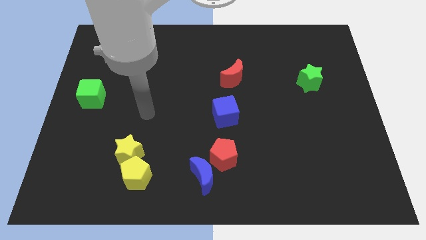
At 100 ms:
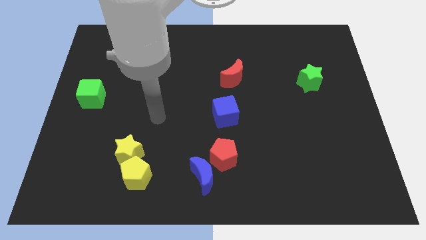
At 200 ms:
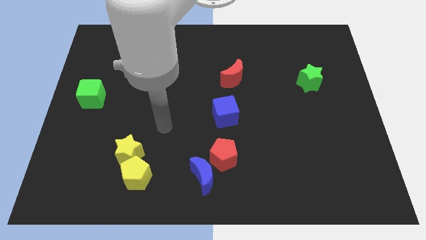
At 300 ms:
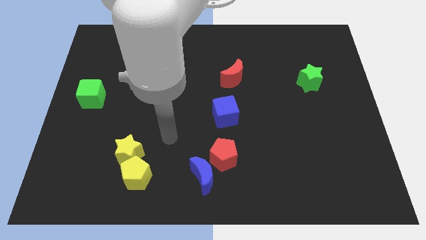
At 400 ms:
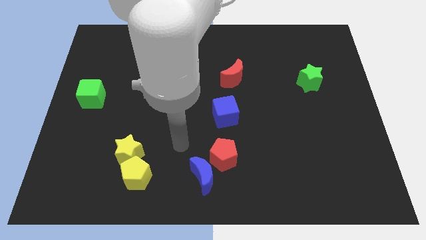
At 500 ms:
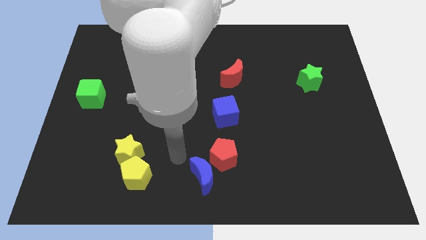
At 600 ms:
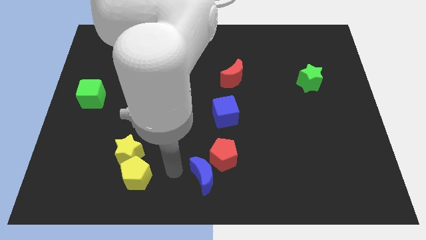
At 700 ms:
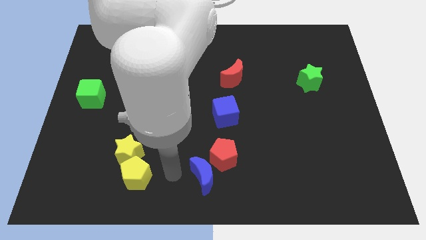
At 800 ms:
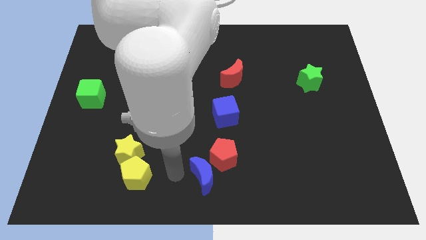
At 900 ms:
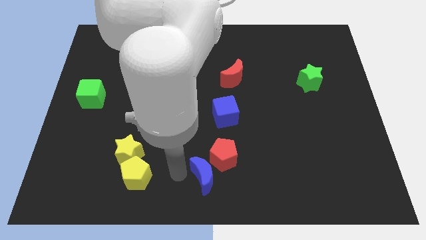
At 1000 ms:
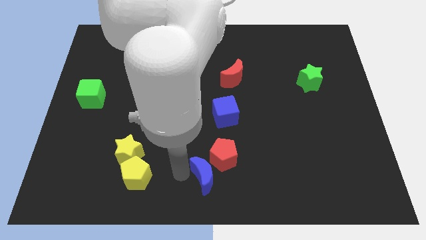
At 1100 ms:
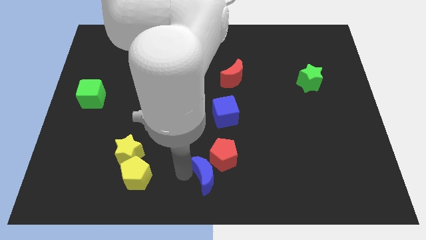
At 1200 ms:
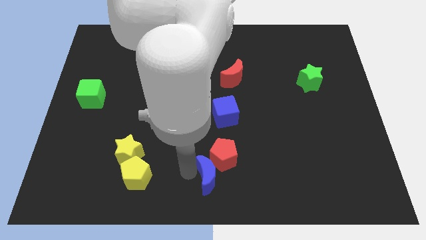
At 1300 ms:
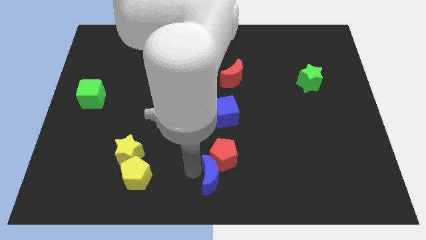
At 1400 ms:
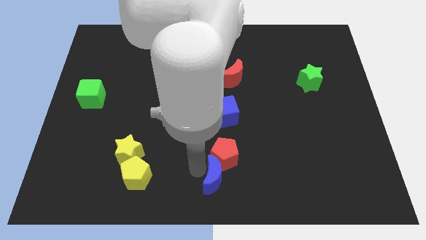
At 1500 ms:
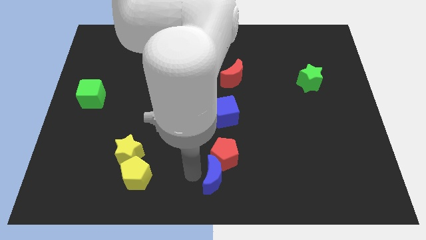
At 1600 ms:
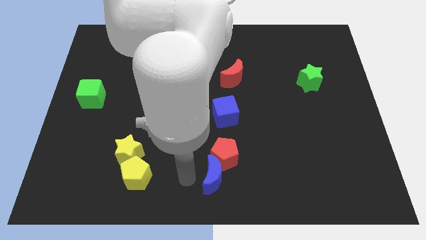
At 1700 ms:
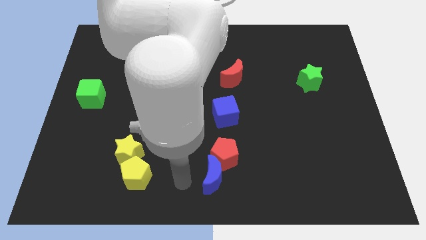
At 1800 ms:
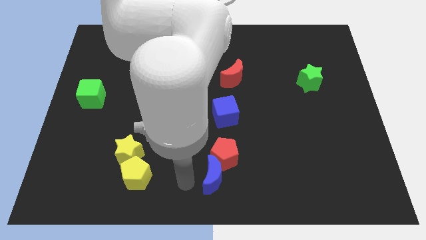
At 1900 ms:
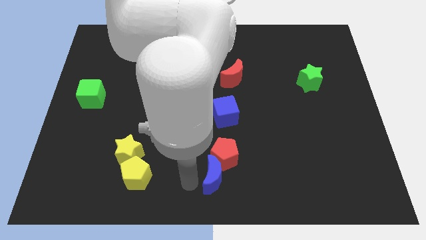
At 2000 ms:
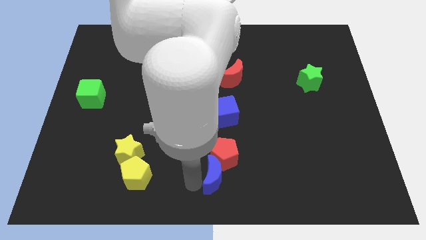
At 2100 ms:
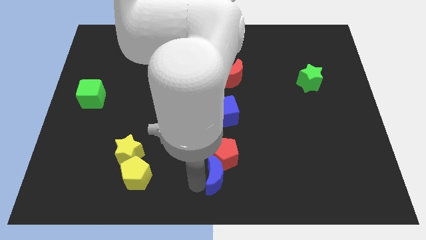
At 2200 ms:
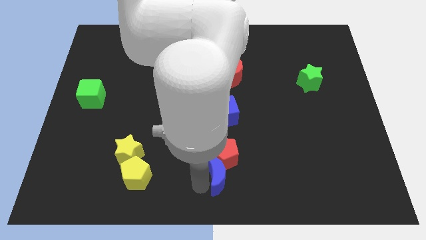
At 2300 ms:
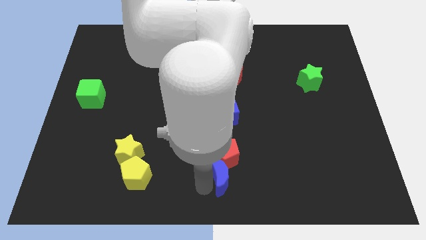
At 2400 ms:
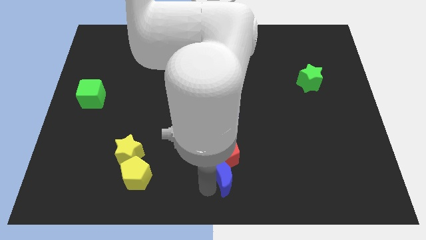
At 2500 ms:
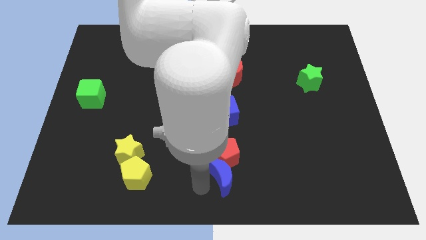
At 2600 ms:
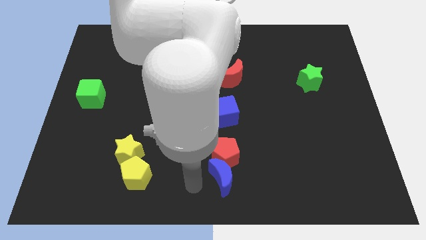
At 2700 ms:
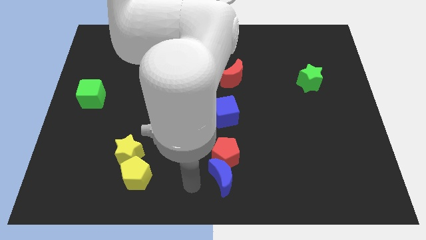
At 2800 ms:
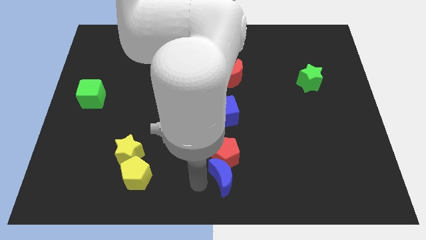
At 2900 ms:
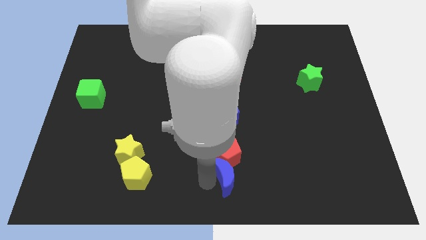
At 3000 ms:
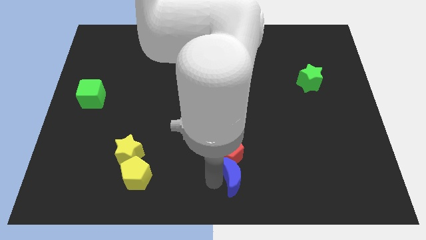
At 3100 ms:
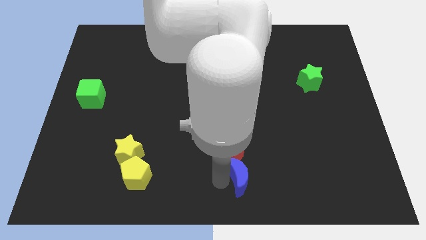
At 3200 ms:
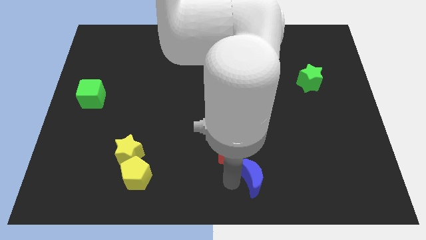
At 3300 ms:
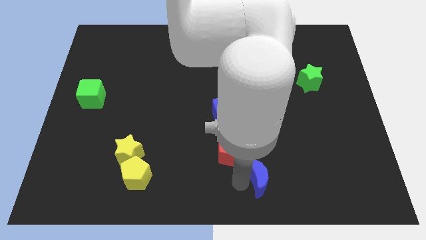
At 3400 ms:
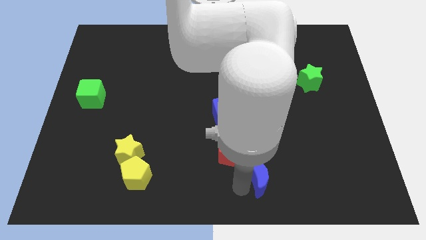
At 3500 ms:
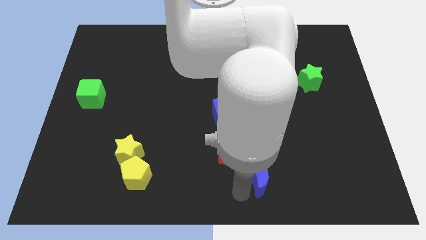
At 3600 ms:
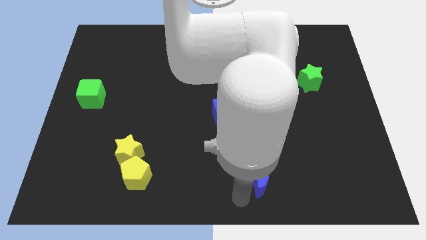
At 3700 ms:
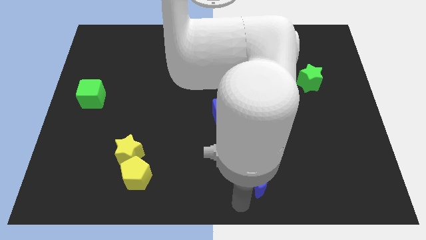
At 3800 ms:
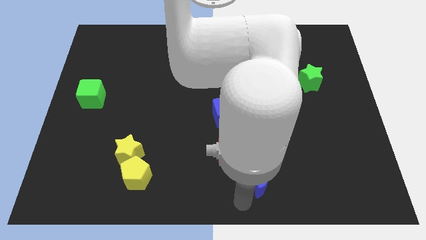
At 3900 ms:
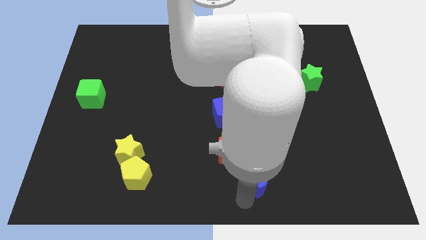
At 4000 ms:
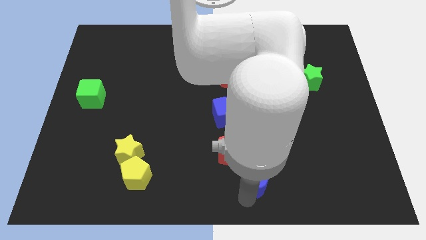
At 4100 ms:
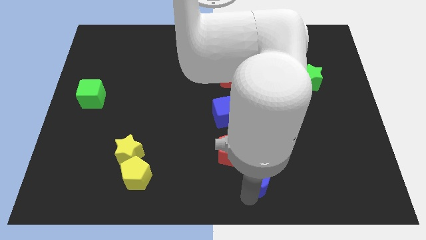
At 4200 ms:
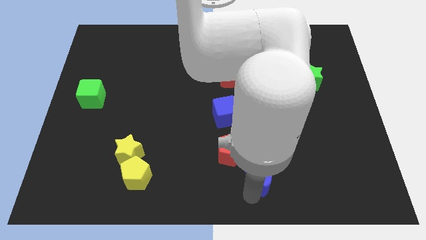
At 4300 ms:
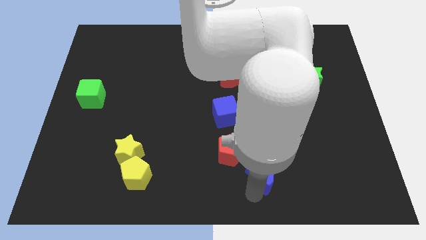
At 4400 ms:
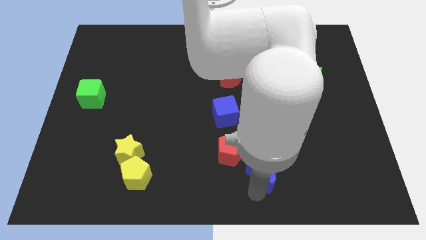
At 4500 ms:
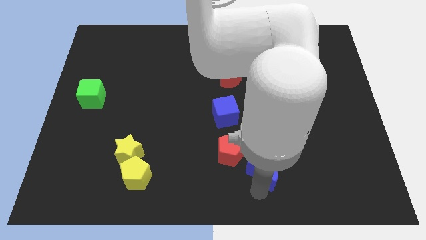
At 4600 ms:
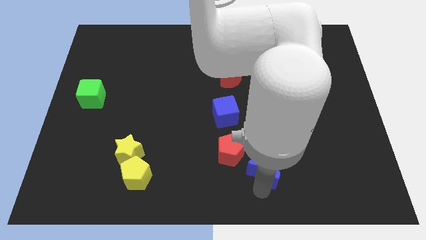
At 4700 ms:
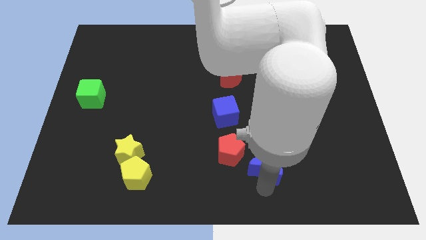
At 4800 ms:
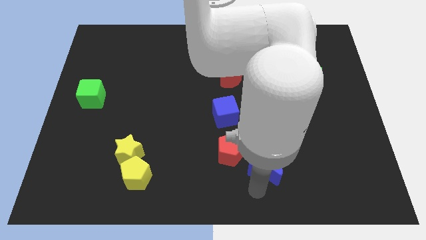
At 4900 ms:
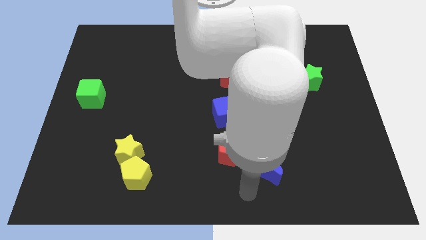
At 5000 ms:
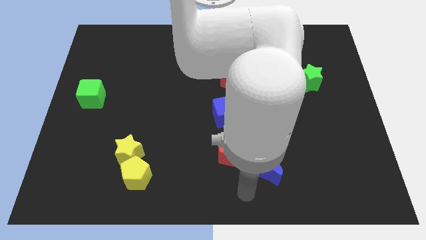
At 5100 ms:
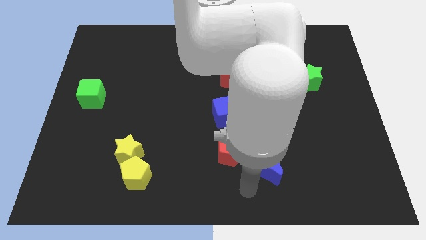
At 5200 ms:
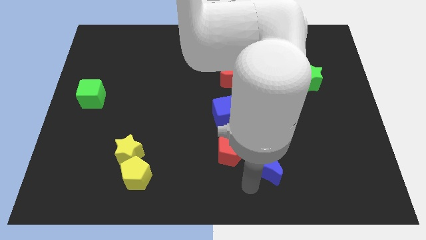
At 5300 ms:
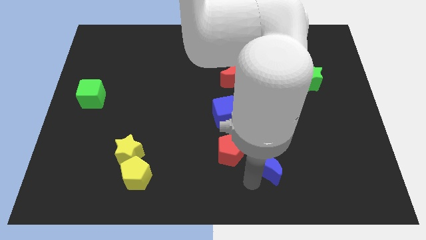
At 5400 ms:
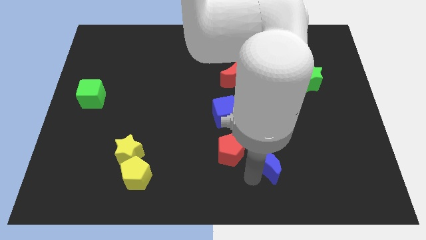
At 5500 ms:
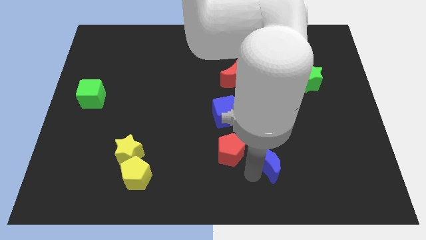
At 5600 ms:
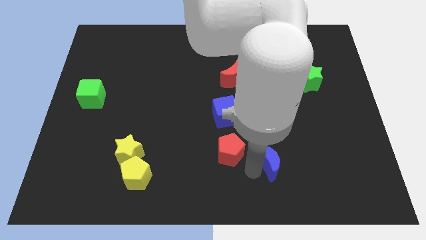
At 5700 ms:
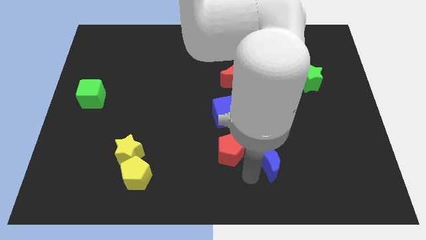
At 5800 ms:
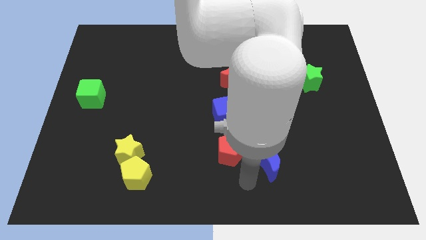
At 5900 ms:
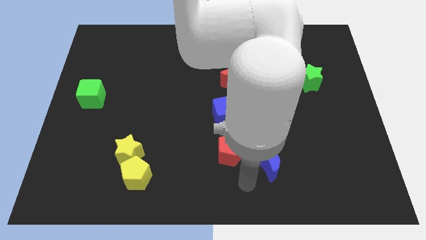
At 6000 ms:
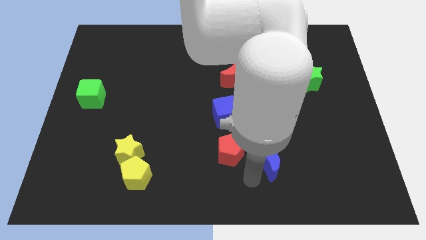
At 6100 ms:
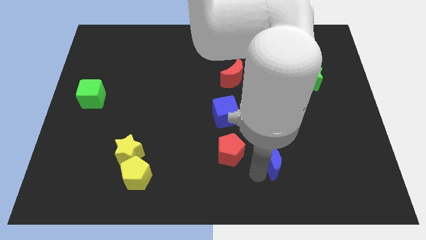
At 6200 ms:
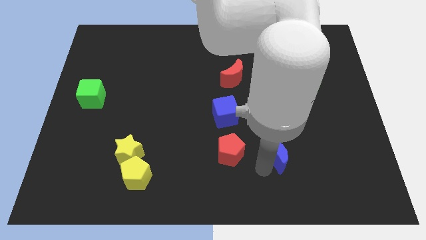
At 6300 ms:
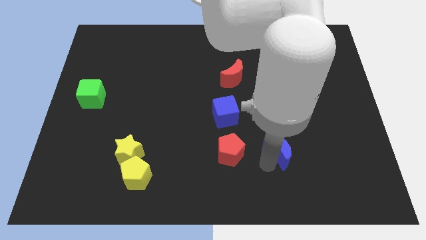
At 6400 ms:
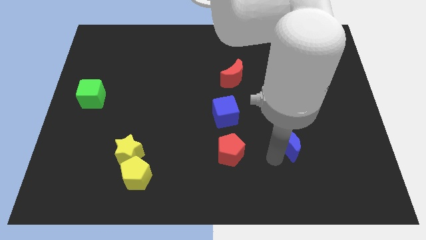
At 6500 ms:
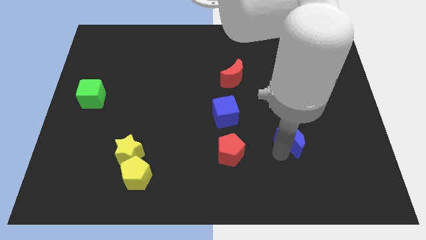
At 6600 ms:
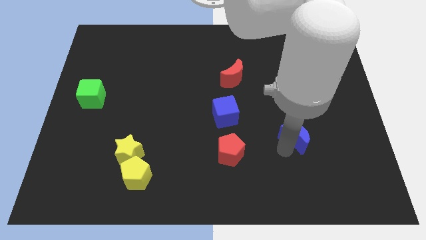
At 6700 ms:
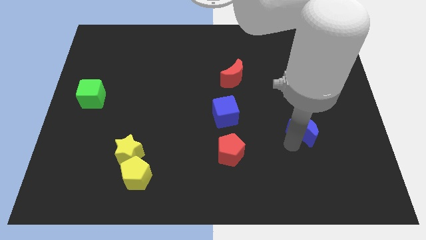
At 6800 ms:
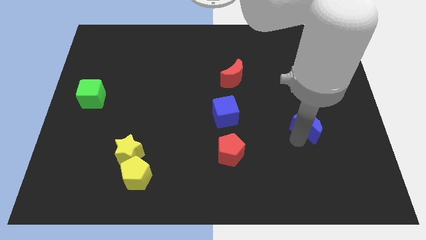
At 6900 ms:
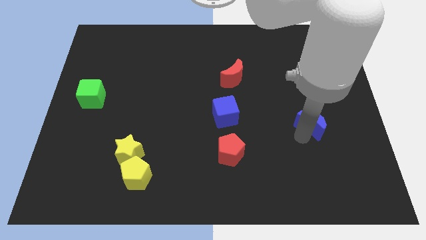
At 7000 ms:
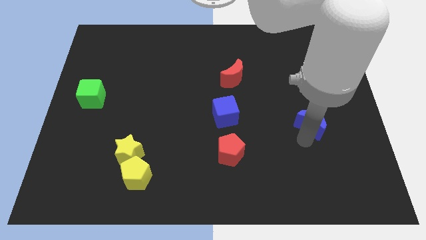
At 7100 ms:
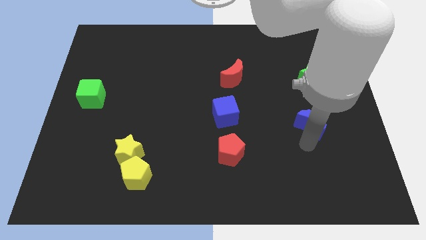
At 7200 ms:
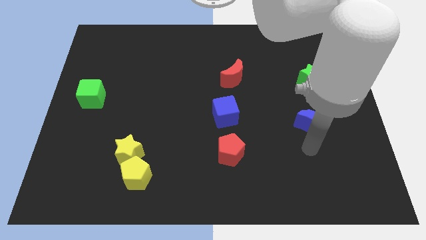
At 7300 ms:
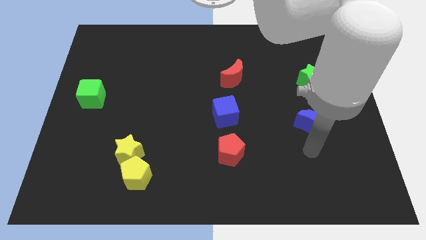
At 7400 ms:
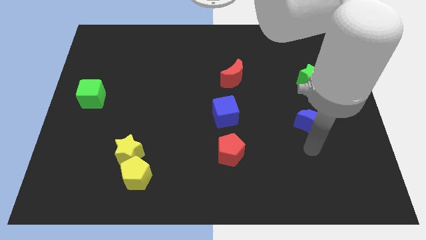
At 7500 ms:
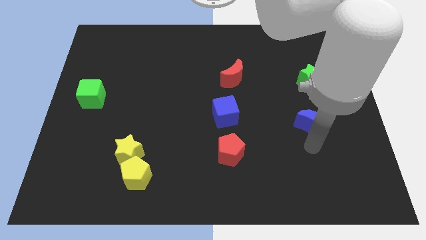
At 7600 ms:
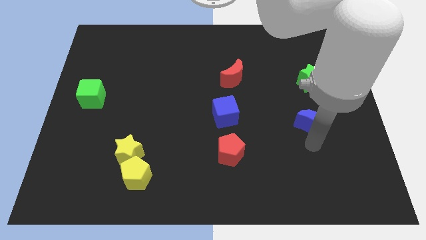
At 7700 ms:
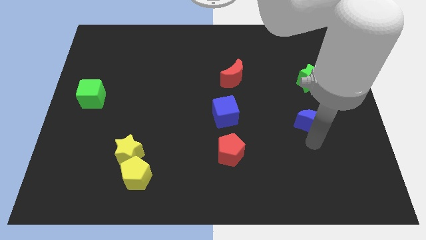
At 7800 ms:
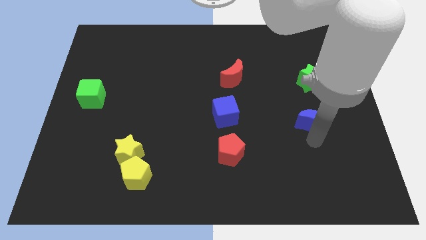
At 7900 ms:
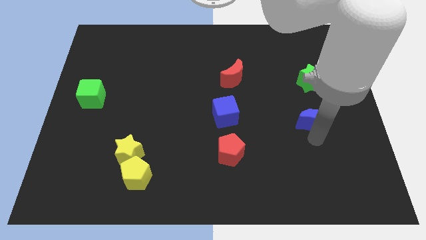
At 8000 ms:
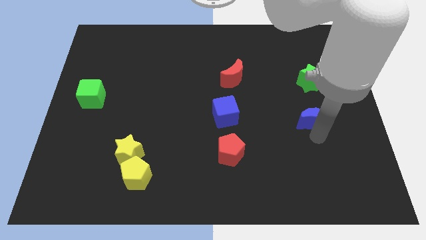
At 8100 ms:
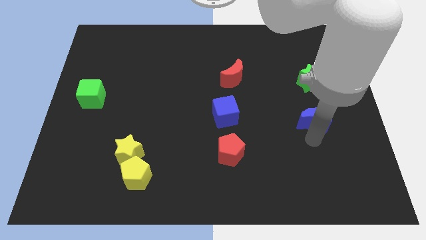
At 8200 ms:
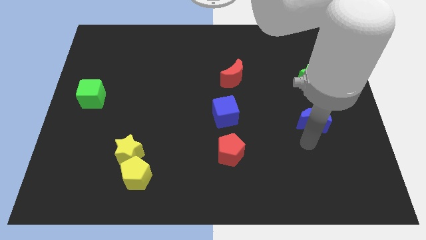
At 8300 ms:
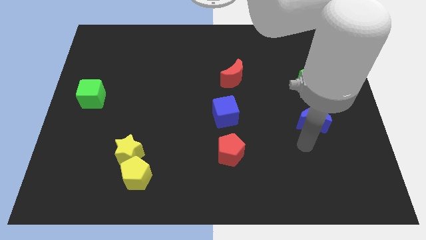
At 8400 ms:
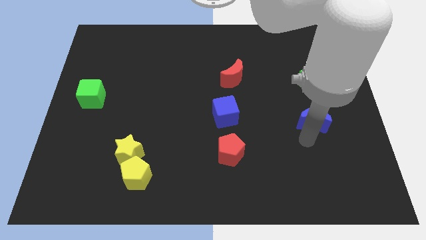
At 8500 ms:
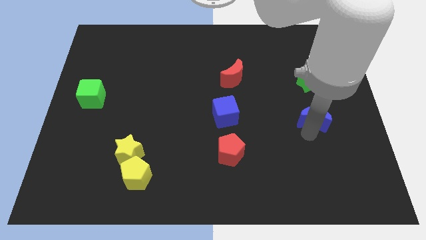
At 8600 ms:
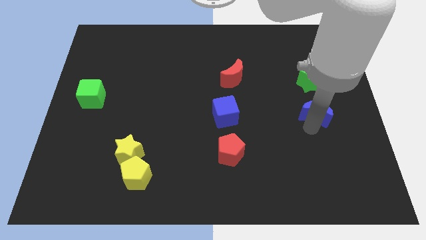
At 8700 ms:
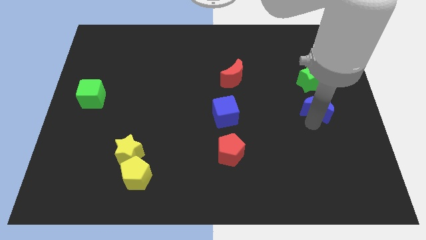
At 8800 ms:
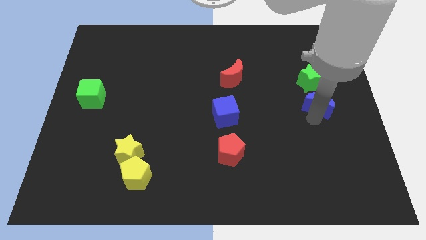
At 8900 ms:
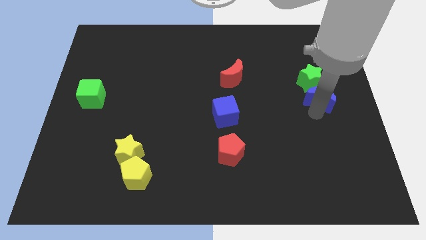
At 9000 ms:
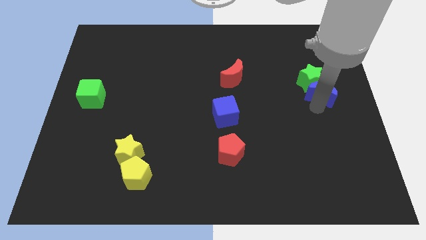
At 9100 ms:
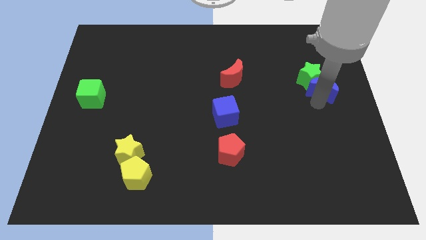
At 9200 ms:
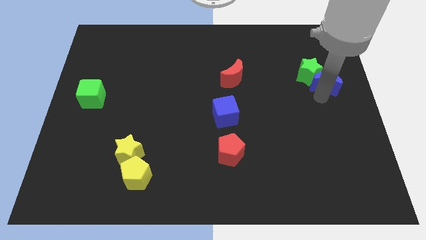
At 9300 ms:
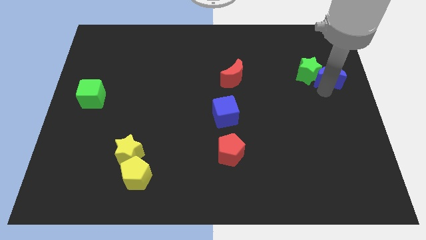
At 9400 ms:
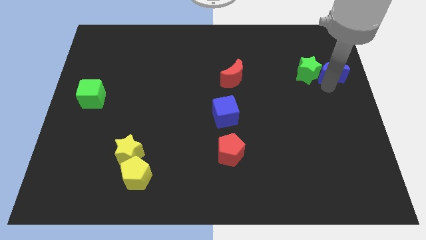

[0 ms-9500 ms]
push the blue moon to the top right of the green star
